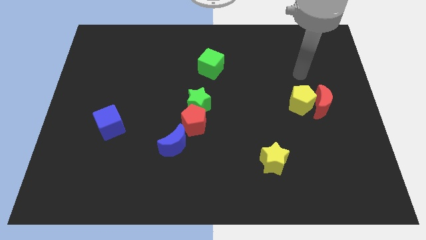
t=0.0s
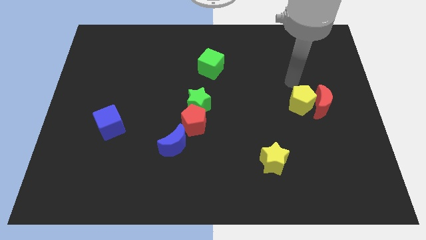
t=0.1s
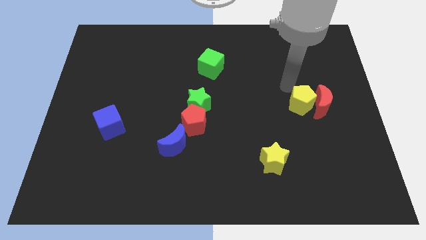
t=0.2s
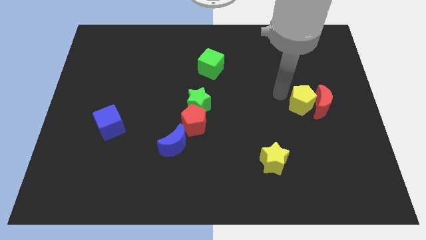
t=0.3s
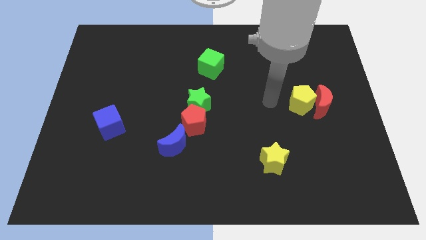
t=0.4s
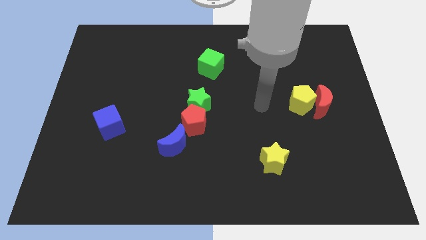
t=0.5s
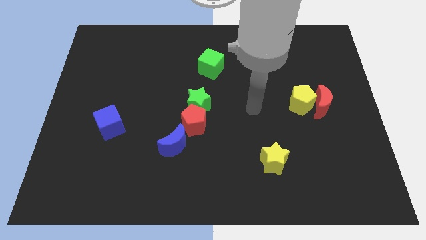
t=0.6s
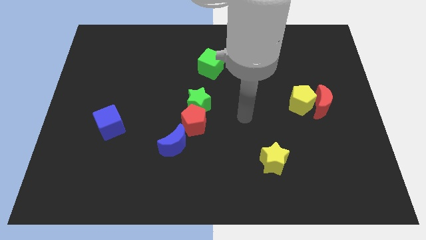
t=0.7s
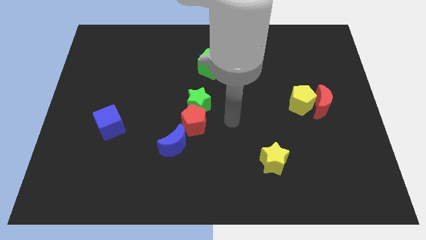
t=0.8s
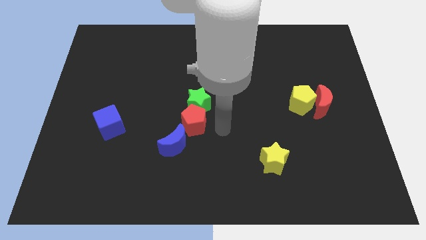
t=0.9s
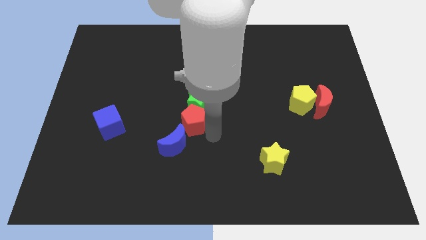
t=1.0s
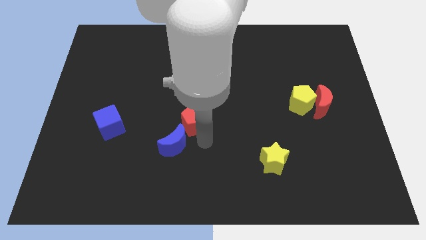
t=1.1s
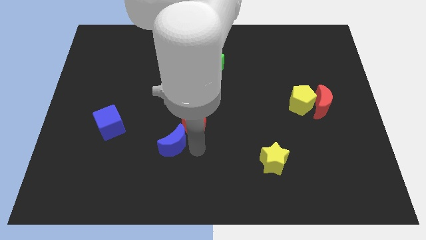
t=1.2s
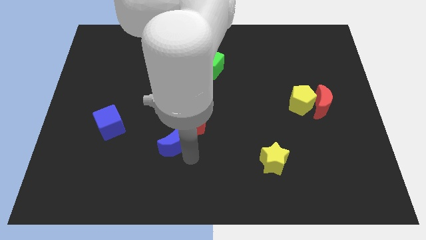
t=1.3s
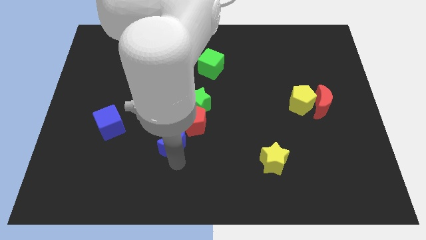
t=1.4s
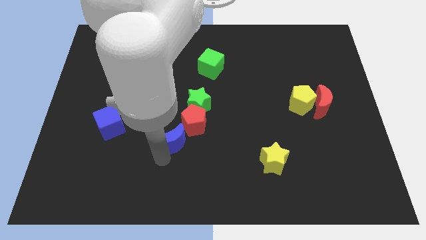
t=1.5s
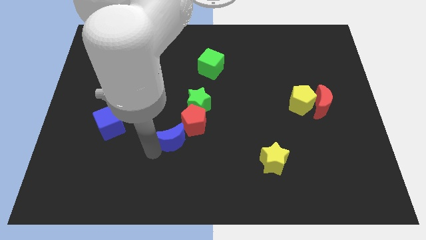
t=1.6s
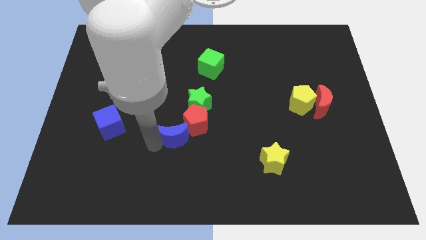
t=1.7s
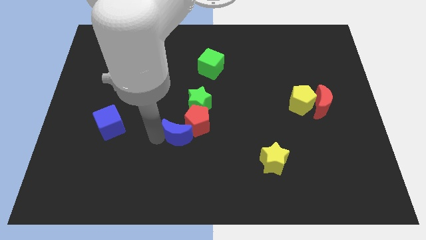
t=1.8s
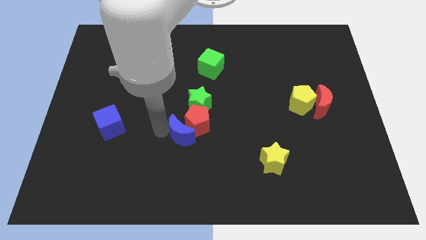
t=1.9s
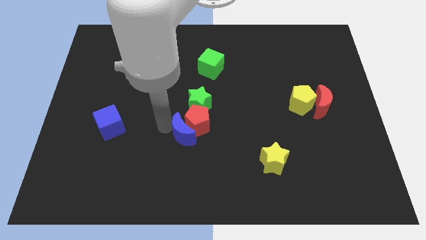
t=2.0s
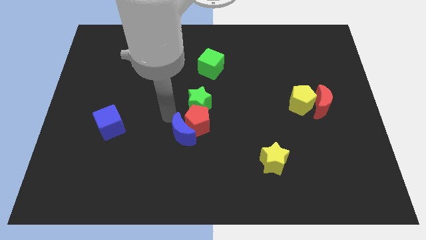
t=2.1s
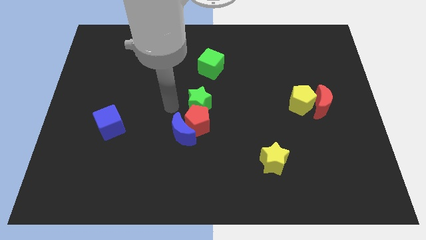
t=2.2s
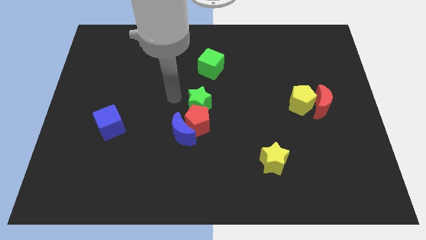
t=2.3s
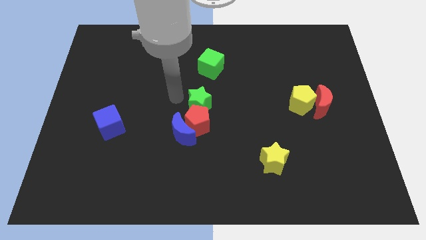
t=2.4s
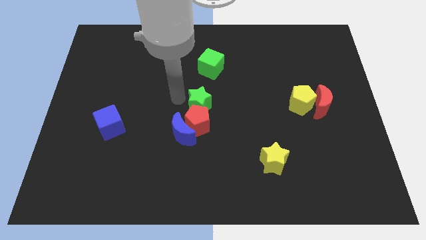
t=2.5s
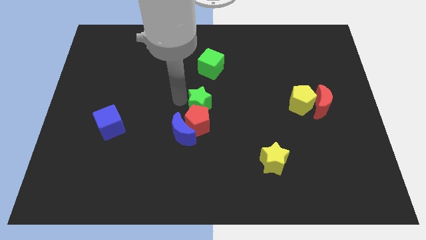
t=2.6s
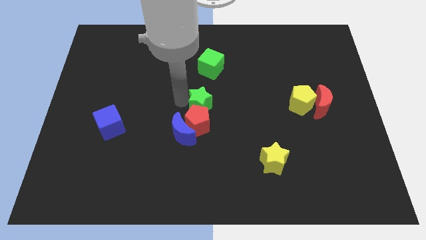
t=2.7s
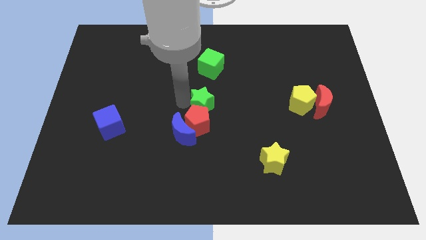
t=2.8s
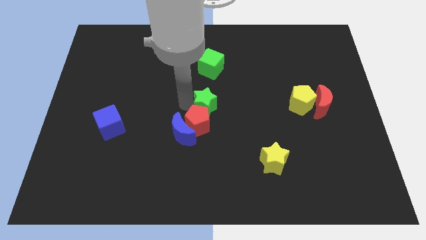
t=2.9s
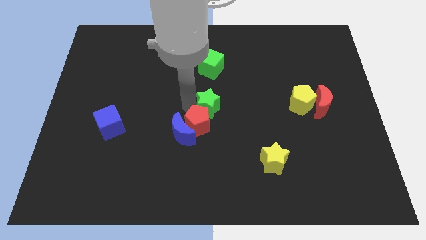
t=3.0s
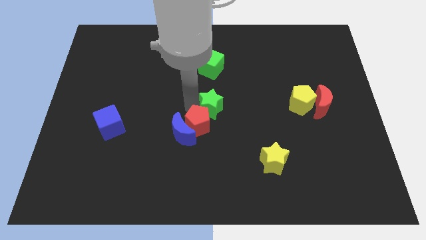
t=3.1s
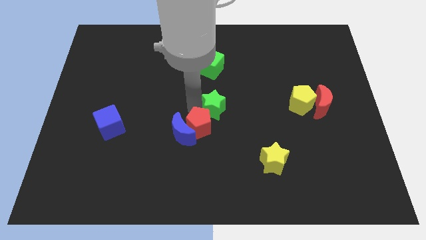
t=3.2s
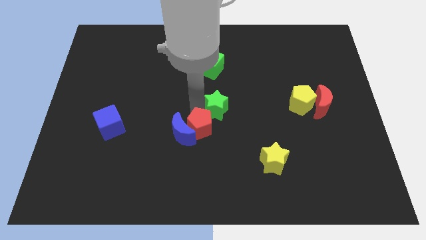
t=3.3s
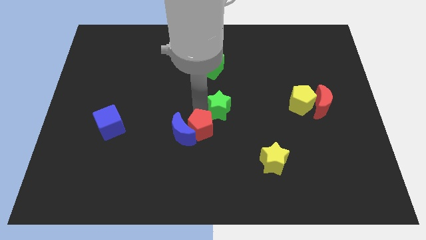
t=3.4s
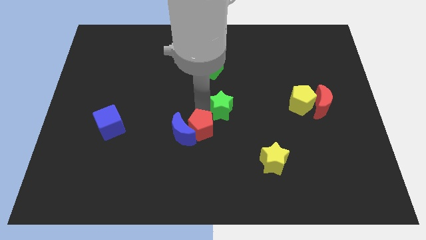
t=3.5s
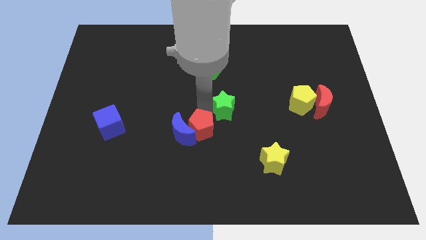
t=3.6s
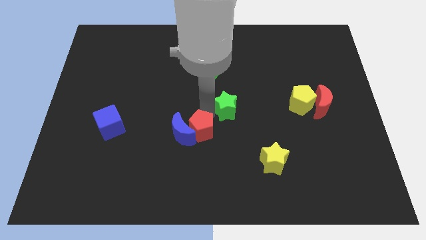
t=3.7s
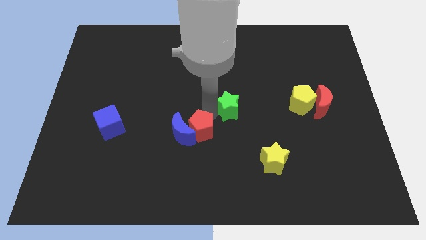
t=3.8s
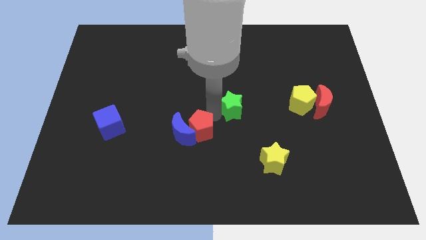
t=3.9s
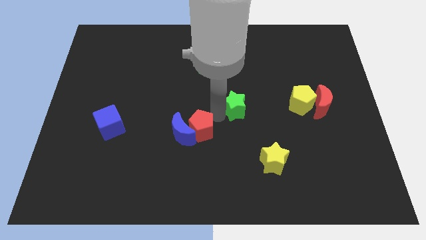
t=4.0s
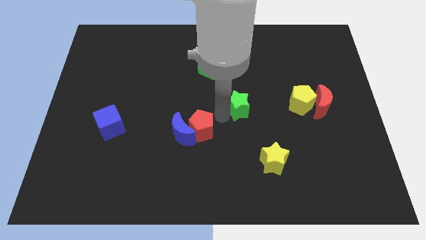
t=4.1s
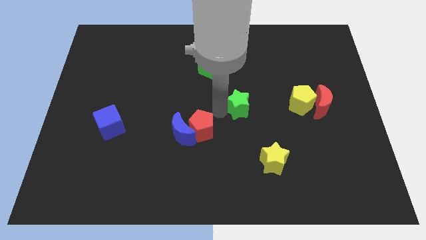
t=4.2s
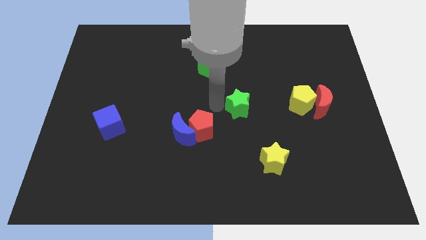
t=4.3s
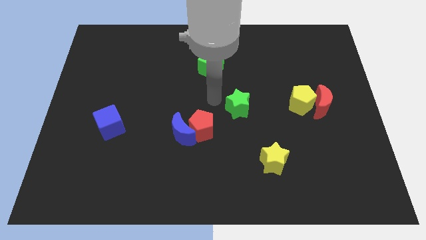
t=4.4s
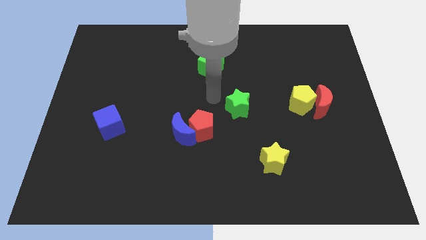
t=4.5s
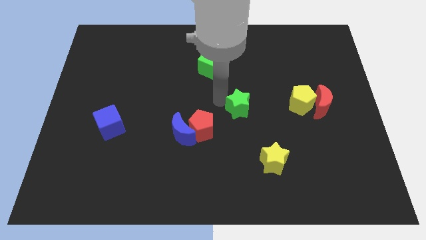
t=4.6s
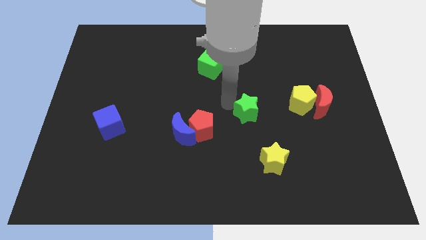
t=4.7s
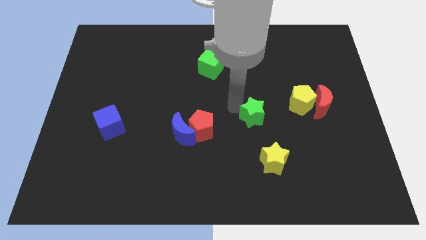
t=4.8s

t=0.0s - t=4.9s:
move the green star to the top side of the yellow star

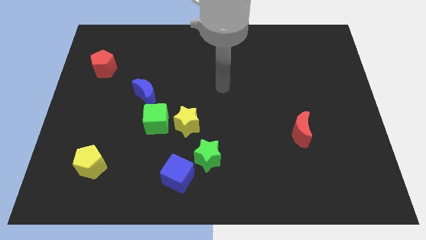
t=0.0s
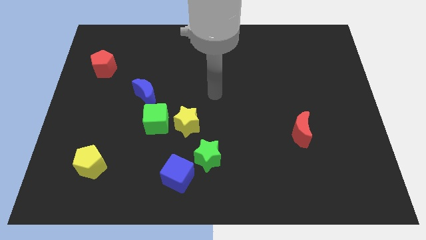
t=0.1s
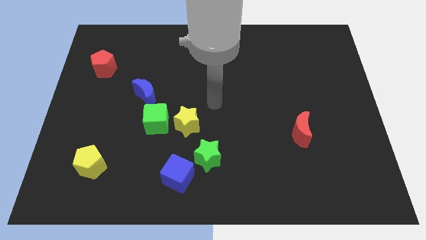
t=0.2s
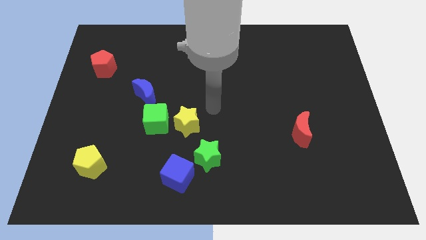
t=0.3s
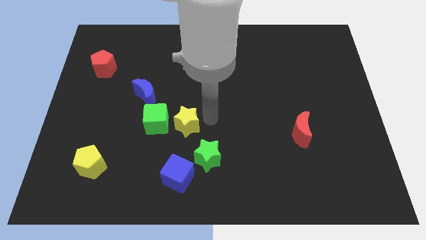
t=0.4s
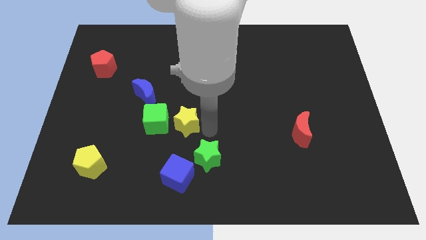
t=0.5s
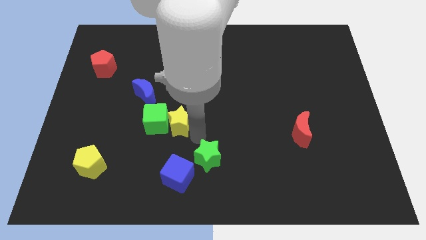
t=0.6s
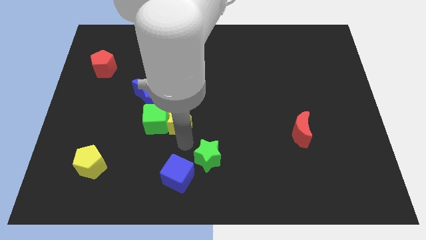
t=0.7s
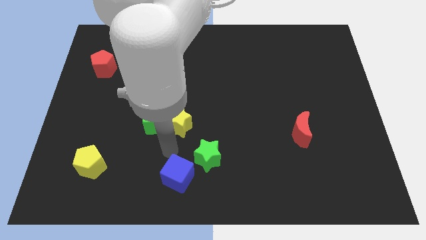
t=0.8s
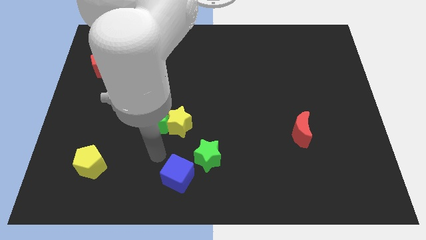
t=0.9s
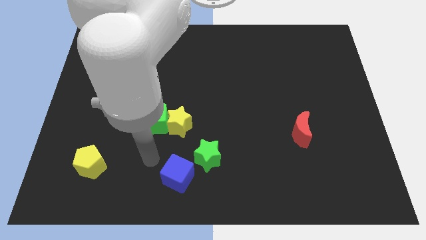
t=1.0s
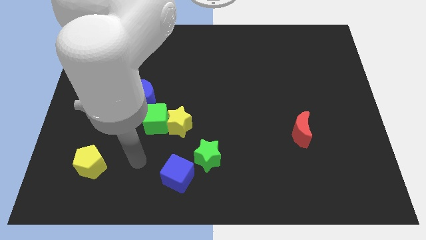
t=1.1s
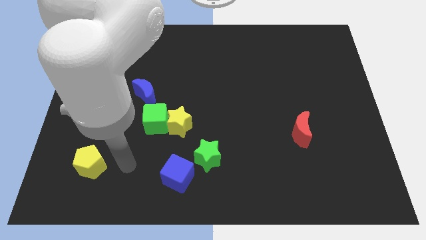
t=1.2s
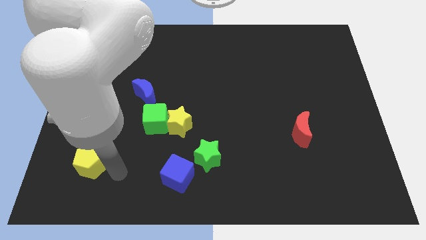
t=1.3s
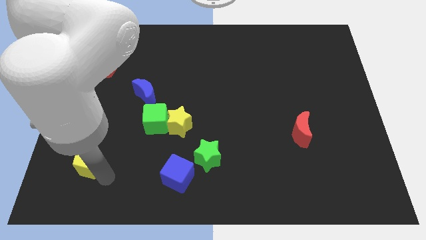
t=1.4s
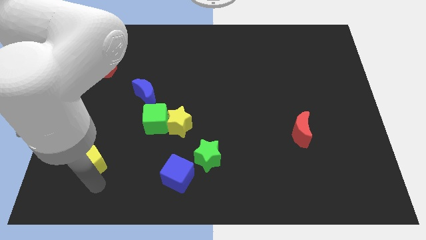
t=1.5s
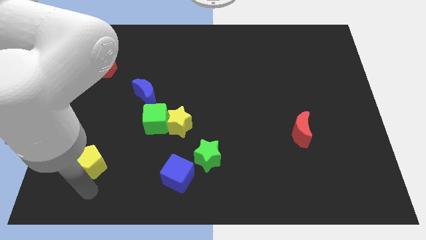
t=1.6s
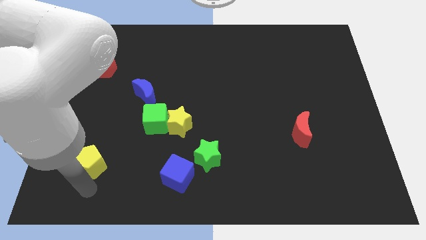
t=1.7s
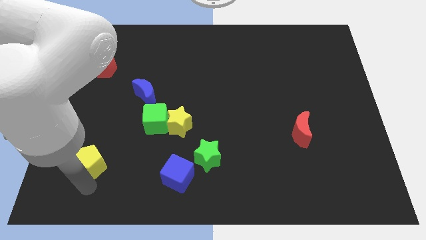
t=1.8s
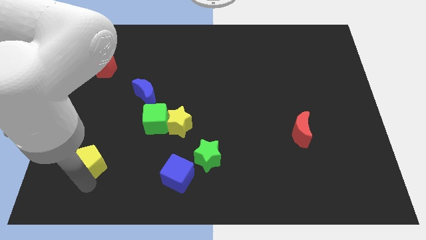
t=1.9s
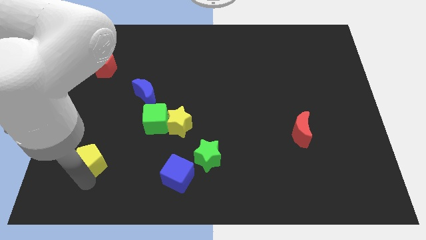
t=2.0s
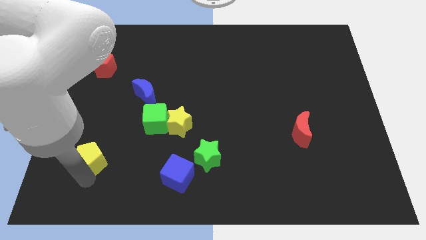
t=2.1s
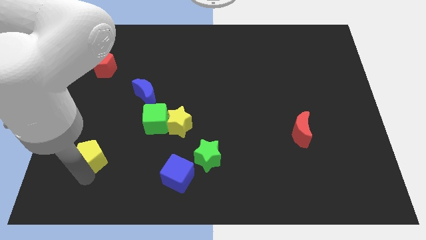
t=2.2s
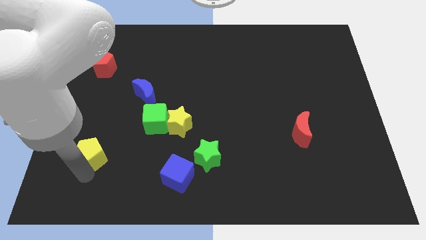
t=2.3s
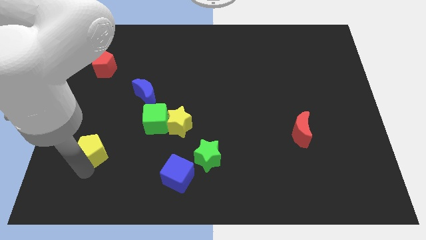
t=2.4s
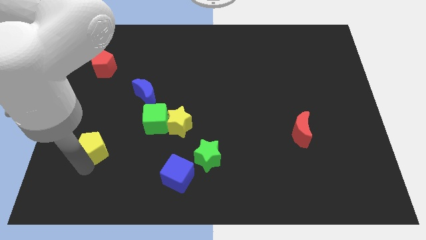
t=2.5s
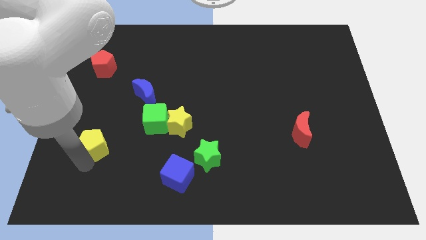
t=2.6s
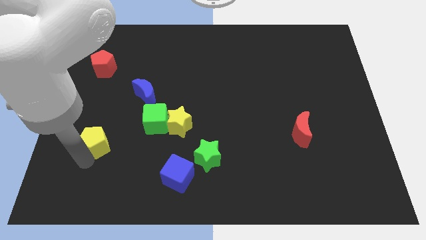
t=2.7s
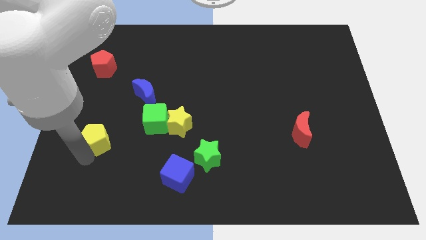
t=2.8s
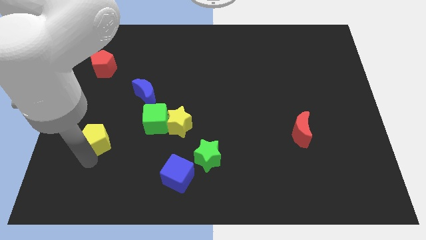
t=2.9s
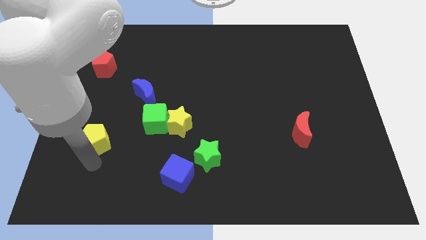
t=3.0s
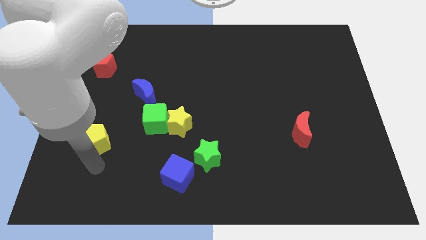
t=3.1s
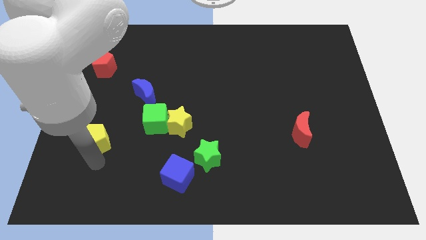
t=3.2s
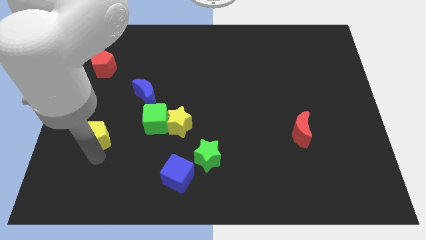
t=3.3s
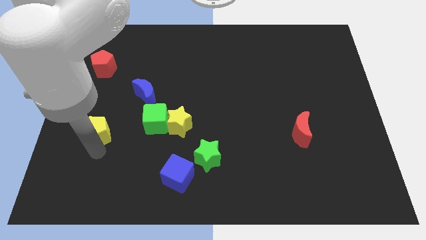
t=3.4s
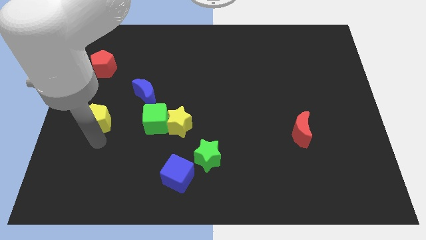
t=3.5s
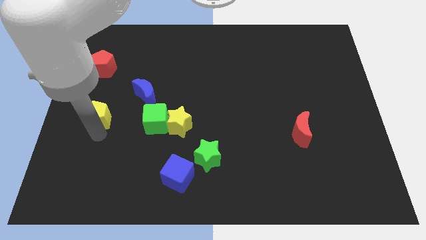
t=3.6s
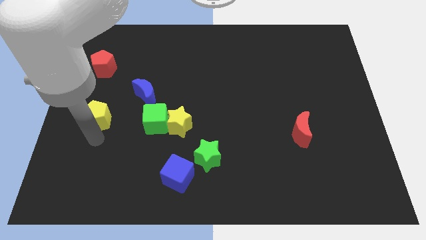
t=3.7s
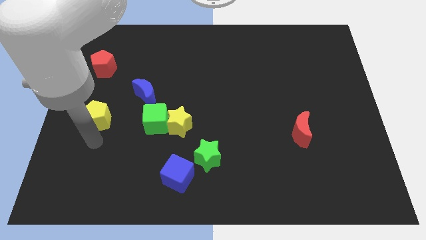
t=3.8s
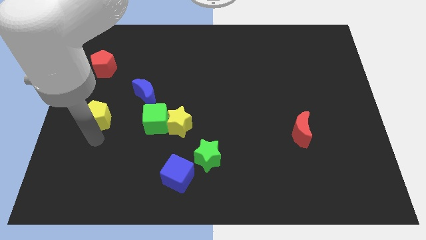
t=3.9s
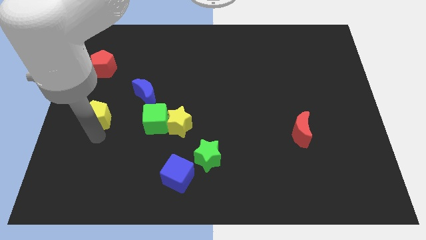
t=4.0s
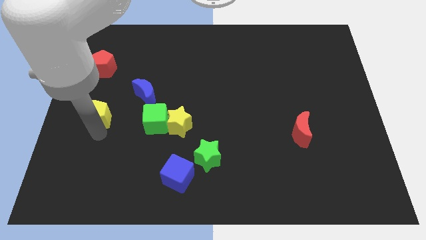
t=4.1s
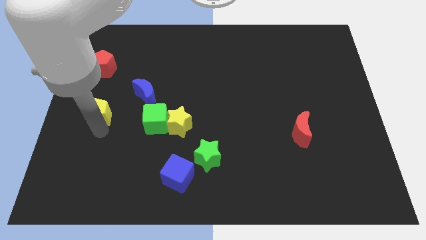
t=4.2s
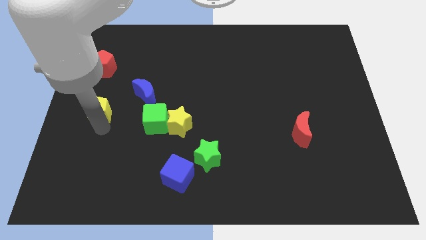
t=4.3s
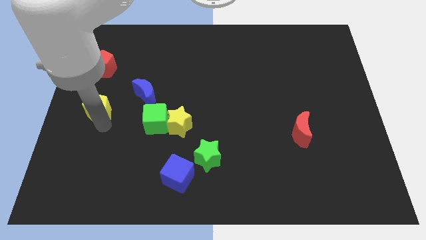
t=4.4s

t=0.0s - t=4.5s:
put the yellow pentagon left of the blue moon
